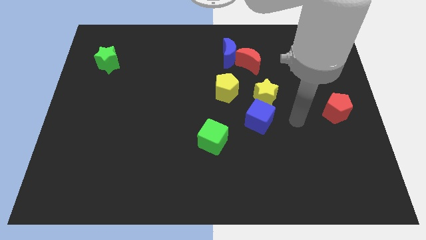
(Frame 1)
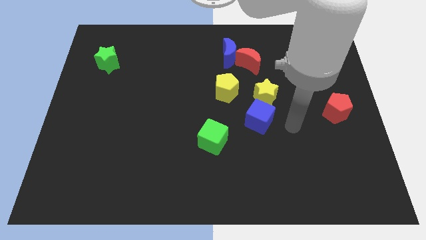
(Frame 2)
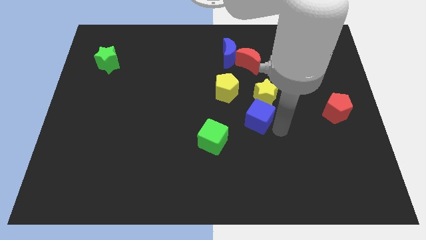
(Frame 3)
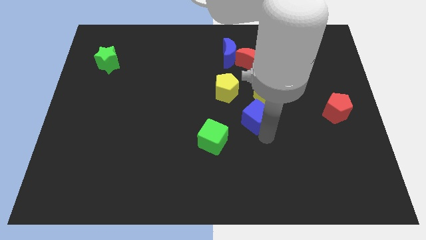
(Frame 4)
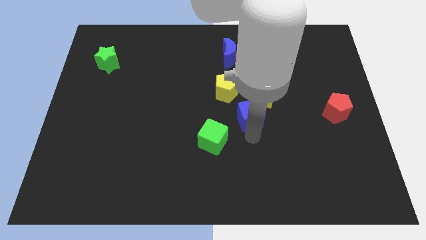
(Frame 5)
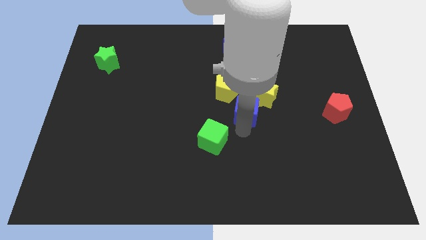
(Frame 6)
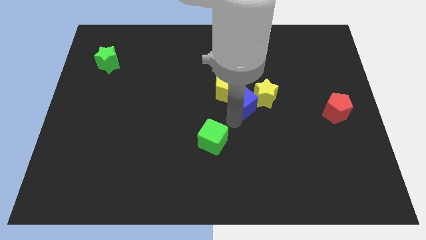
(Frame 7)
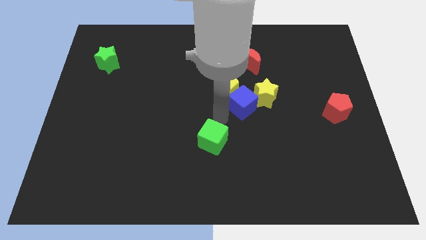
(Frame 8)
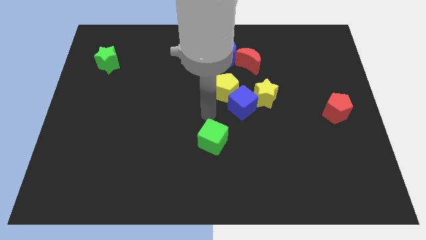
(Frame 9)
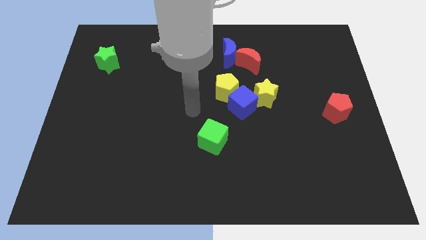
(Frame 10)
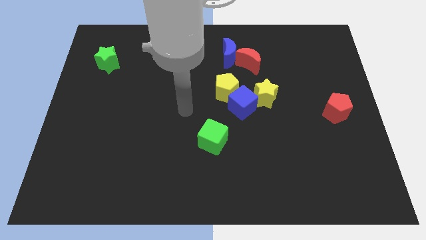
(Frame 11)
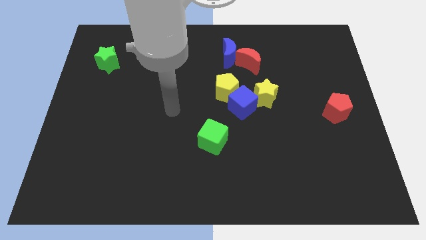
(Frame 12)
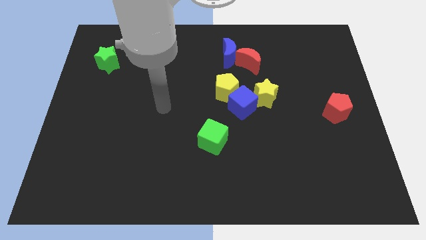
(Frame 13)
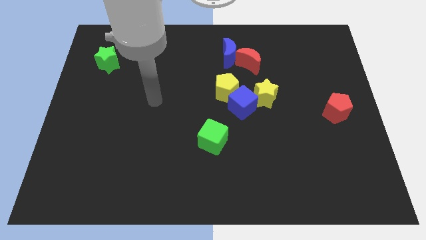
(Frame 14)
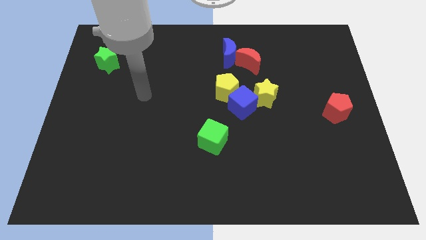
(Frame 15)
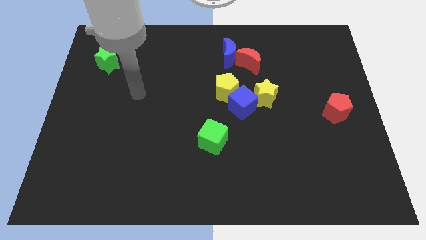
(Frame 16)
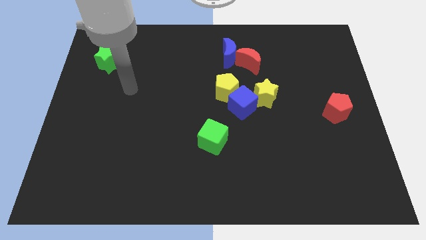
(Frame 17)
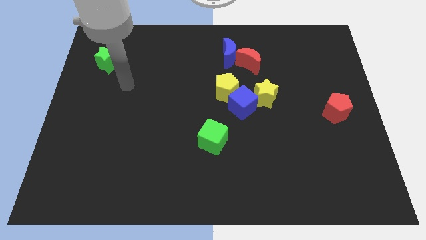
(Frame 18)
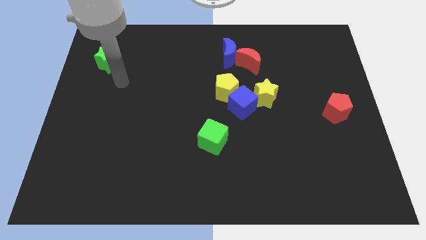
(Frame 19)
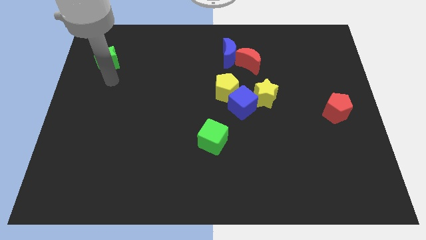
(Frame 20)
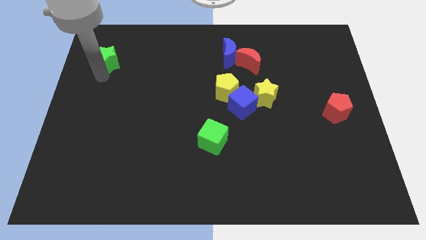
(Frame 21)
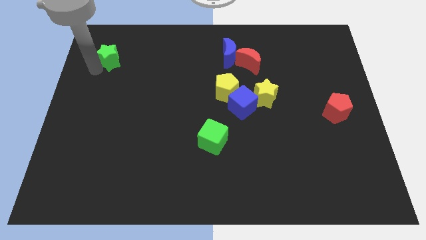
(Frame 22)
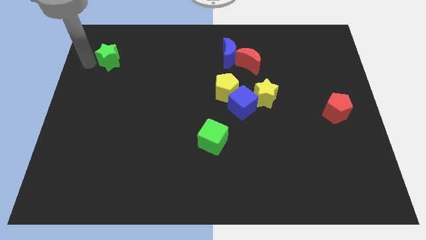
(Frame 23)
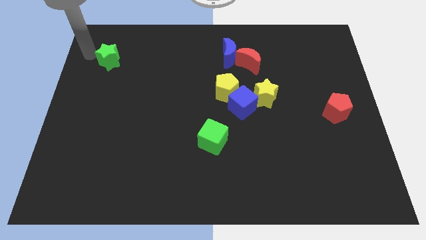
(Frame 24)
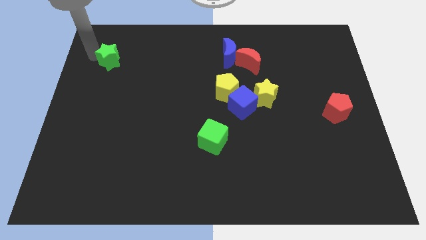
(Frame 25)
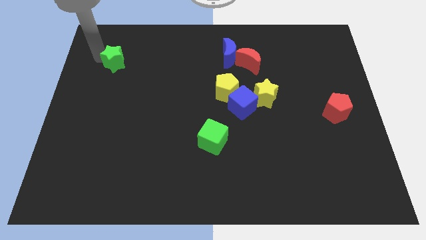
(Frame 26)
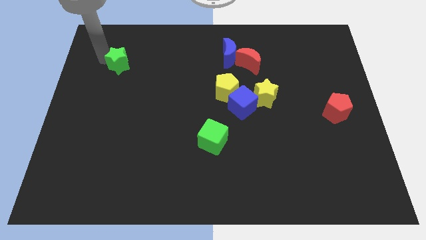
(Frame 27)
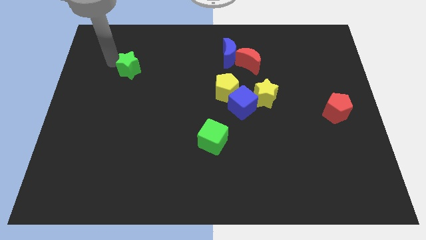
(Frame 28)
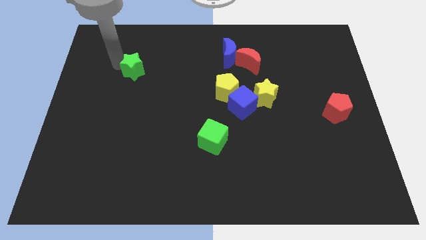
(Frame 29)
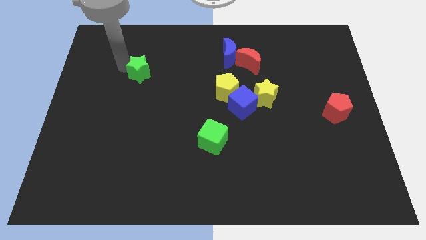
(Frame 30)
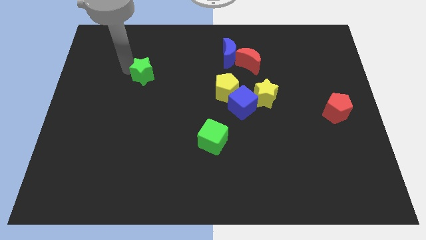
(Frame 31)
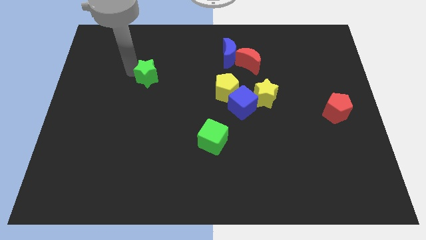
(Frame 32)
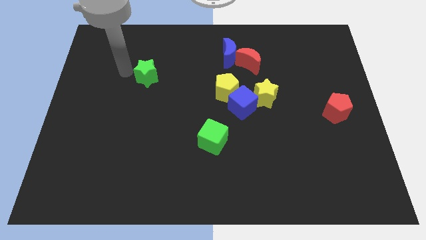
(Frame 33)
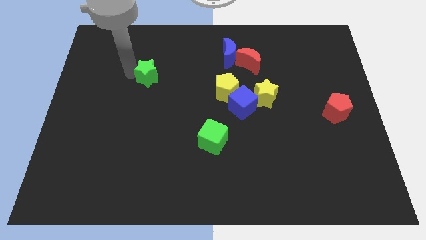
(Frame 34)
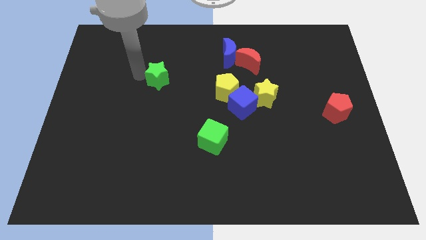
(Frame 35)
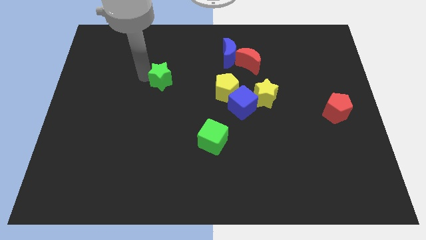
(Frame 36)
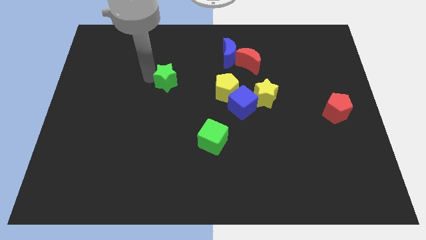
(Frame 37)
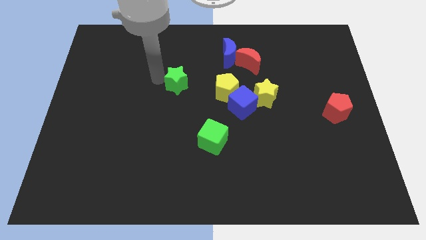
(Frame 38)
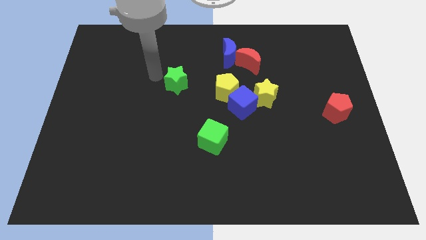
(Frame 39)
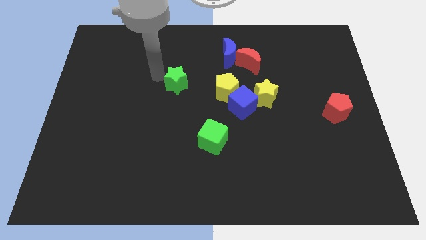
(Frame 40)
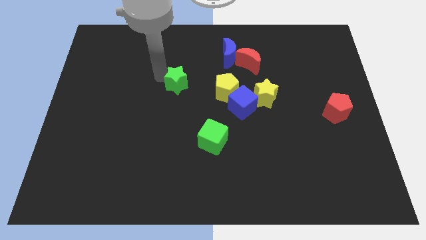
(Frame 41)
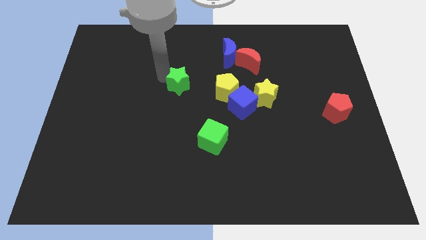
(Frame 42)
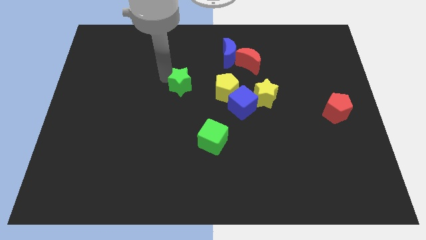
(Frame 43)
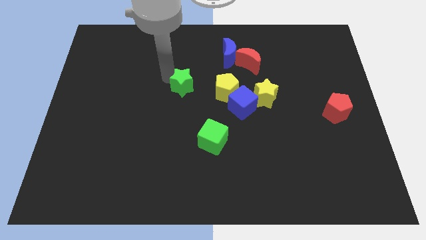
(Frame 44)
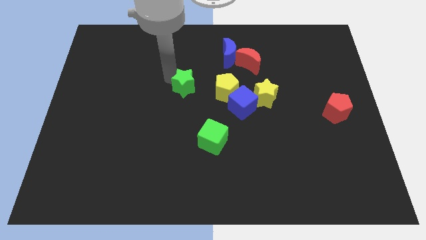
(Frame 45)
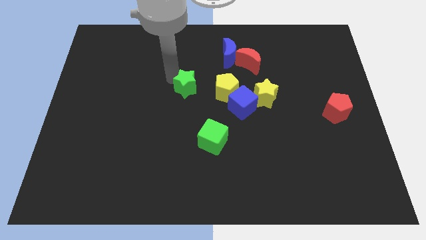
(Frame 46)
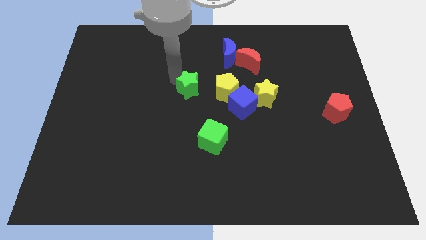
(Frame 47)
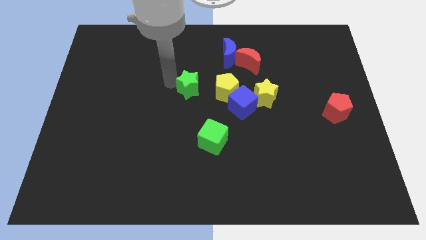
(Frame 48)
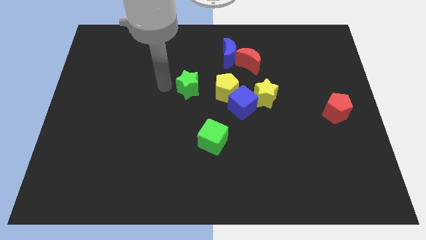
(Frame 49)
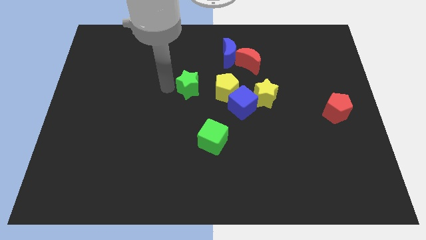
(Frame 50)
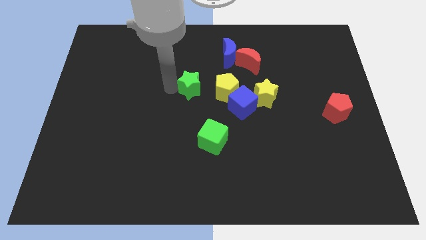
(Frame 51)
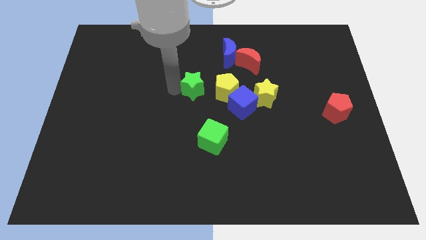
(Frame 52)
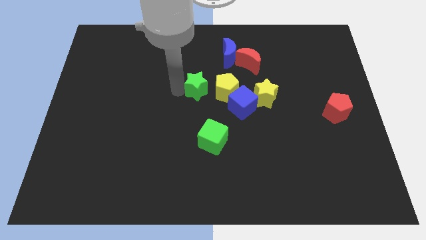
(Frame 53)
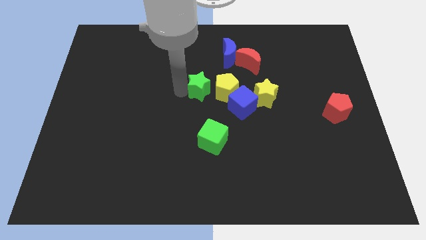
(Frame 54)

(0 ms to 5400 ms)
slide the green star to the yellow pentagon
